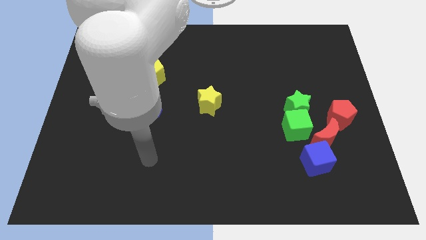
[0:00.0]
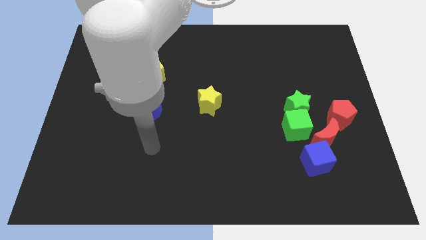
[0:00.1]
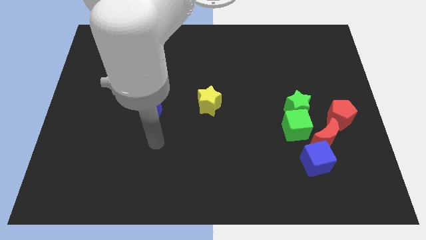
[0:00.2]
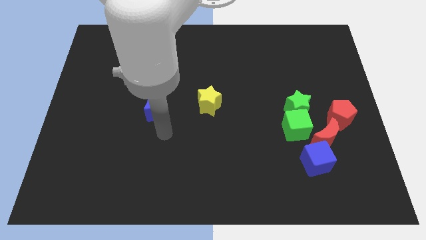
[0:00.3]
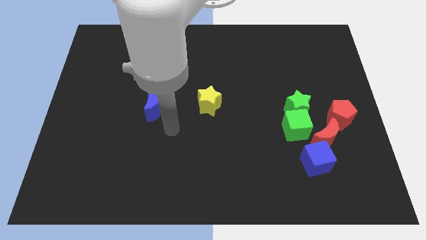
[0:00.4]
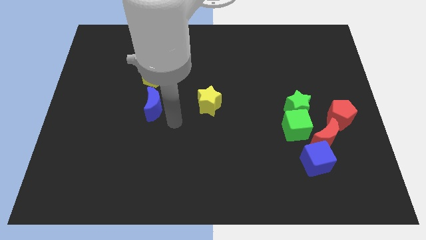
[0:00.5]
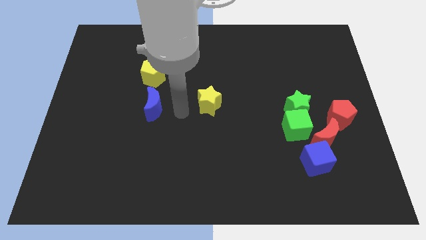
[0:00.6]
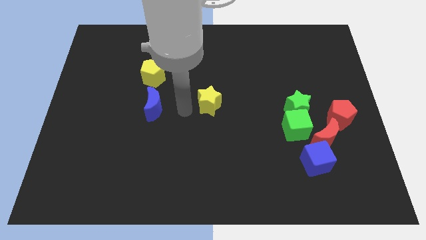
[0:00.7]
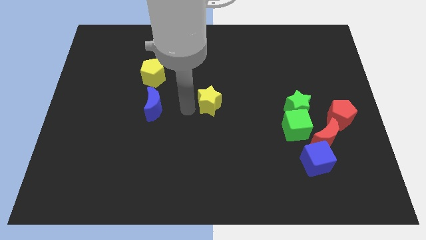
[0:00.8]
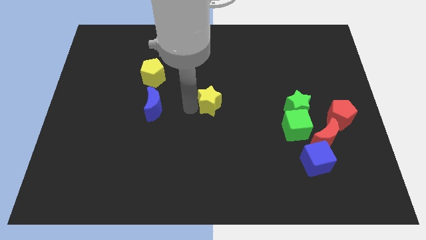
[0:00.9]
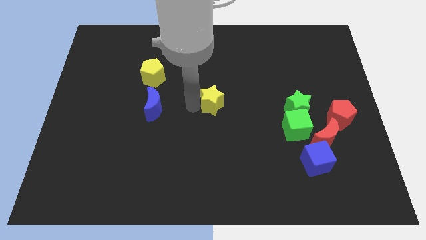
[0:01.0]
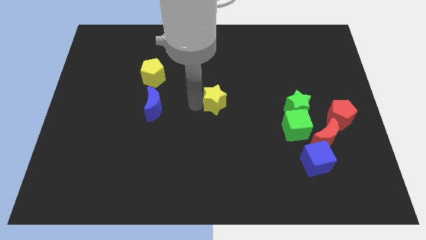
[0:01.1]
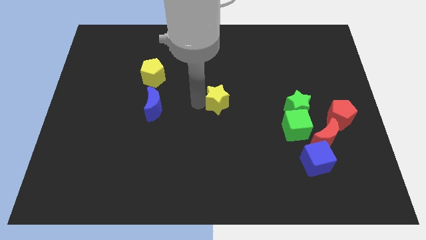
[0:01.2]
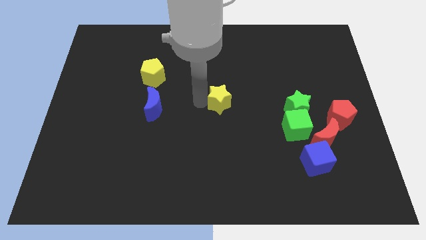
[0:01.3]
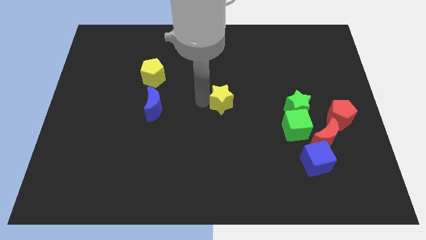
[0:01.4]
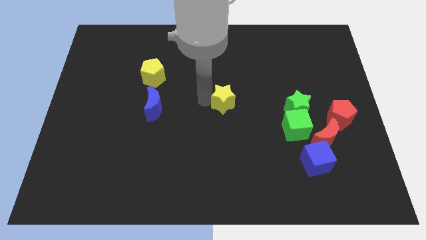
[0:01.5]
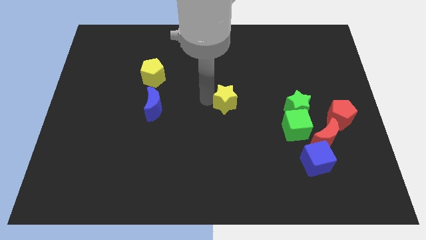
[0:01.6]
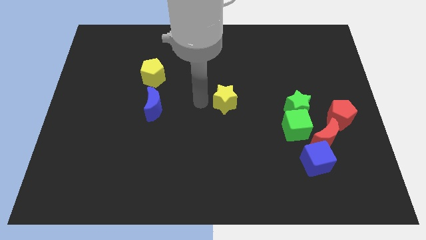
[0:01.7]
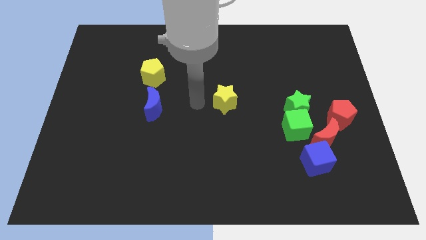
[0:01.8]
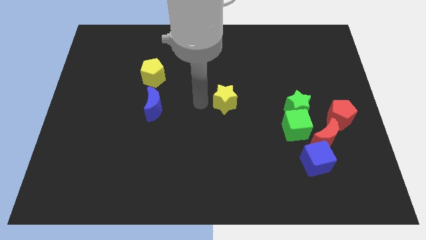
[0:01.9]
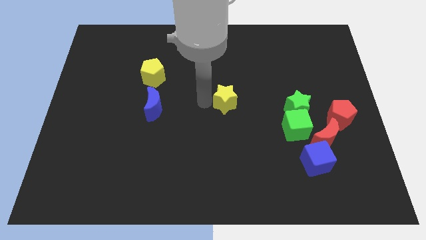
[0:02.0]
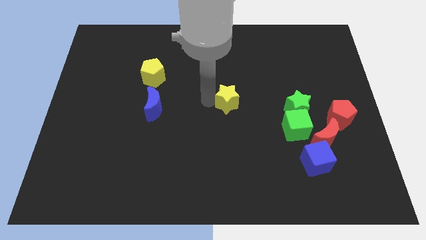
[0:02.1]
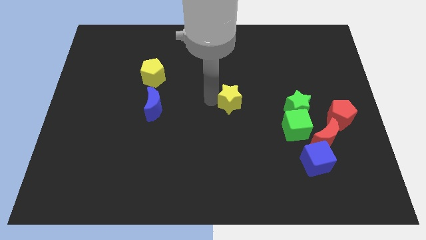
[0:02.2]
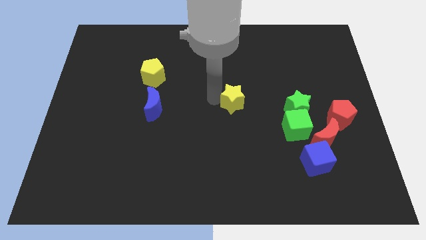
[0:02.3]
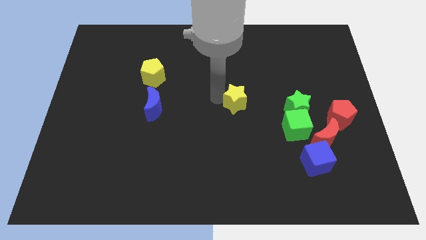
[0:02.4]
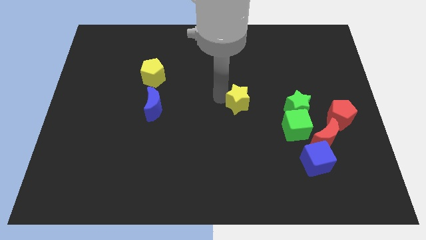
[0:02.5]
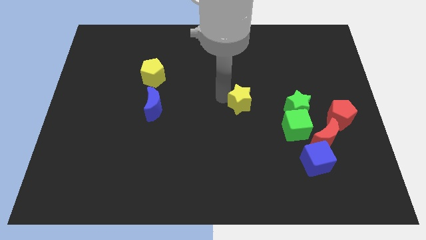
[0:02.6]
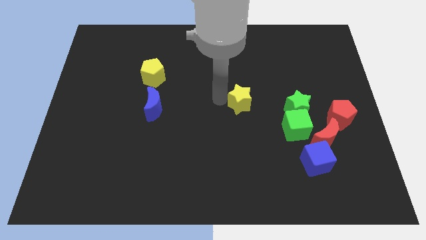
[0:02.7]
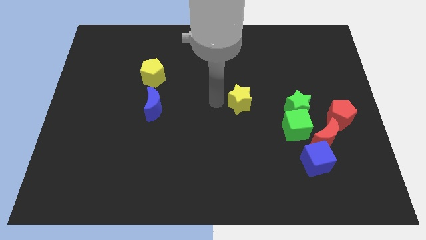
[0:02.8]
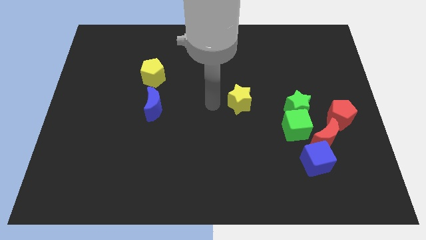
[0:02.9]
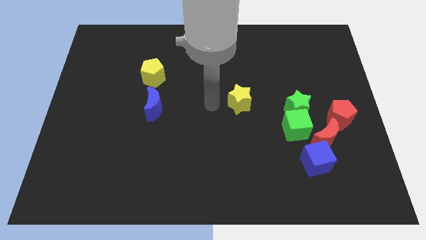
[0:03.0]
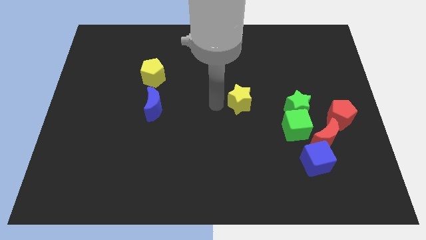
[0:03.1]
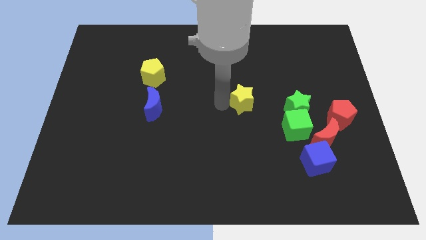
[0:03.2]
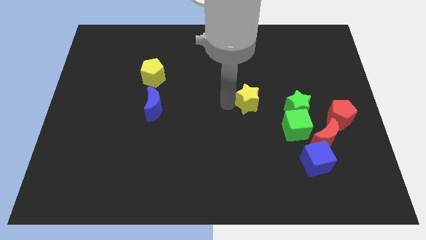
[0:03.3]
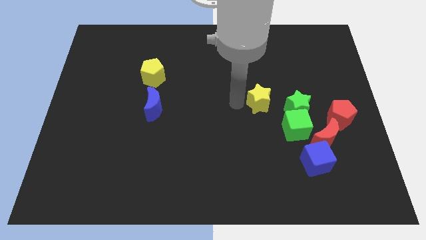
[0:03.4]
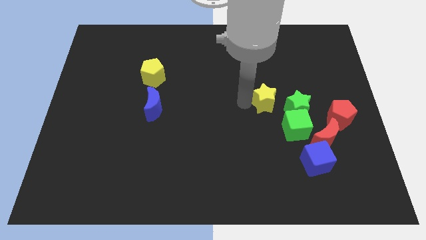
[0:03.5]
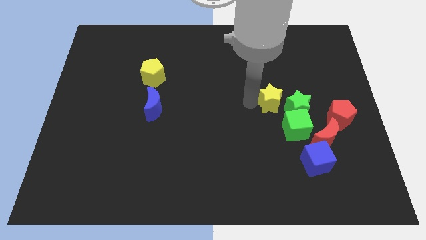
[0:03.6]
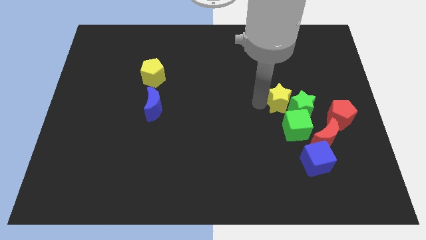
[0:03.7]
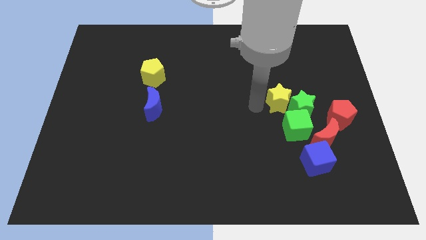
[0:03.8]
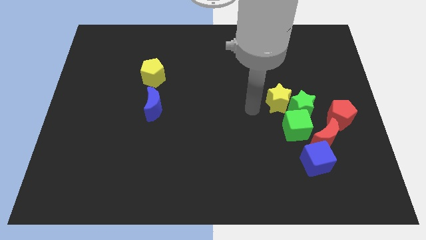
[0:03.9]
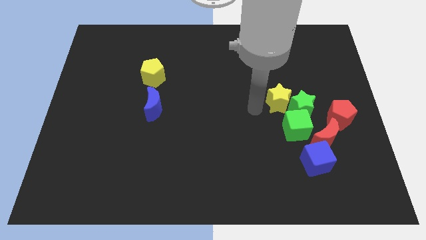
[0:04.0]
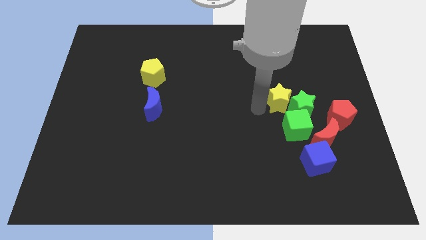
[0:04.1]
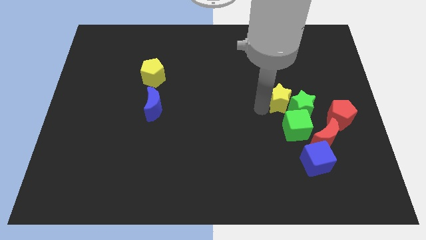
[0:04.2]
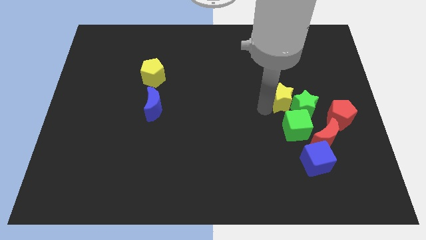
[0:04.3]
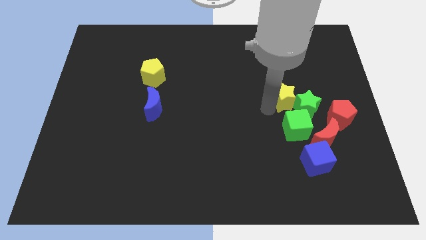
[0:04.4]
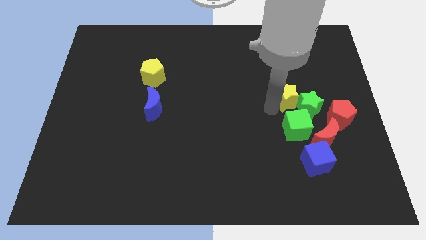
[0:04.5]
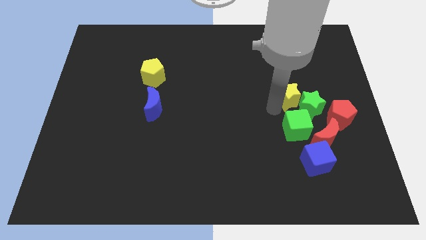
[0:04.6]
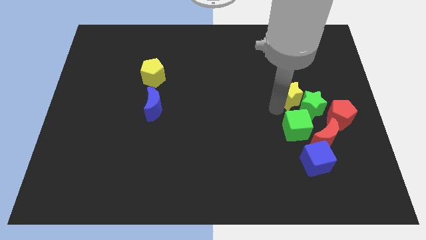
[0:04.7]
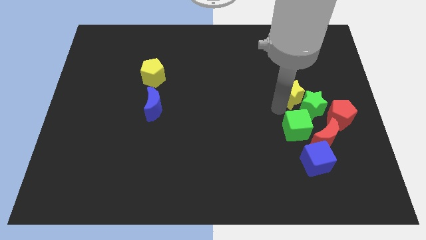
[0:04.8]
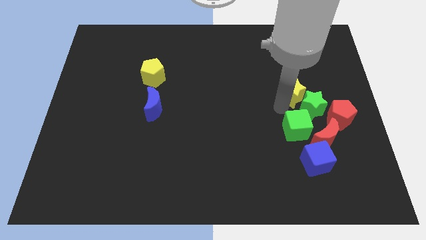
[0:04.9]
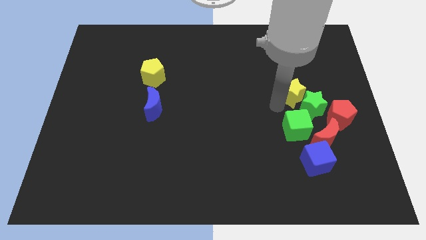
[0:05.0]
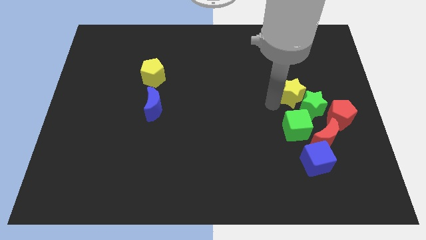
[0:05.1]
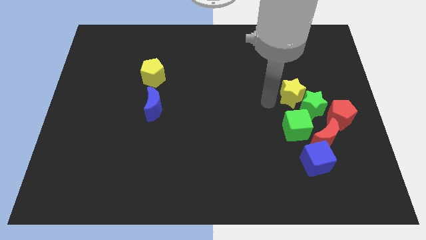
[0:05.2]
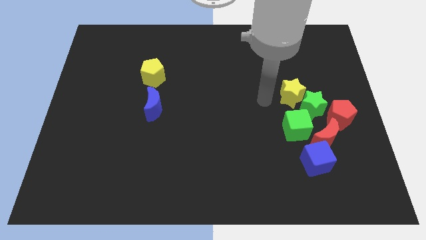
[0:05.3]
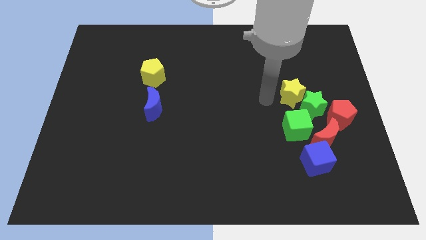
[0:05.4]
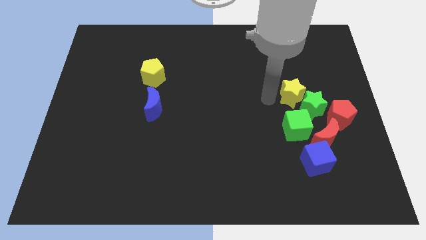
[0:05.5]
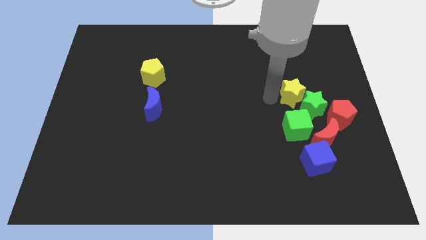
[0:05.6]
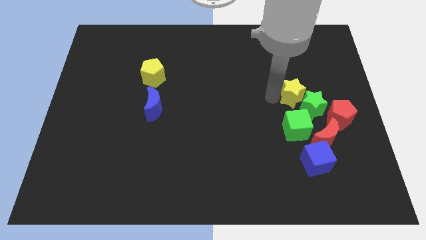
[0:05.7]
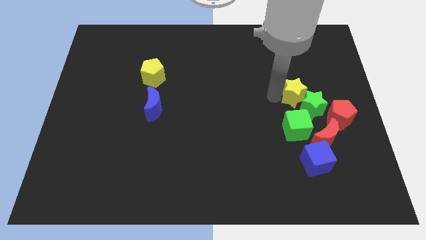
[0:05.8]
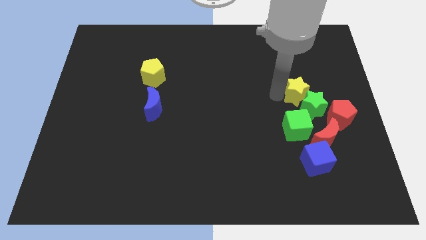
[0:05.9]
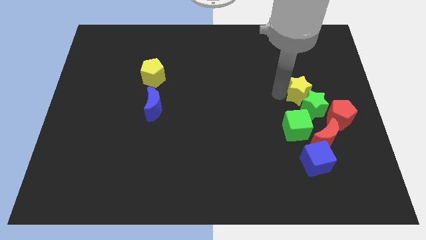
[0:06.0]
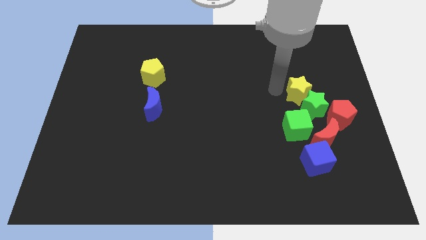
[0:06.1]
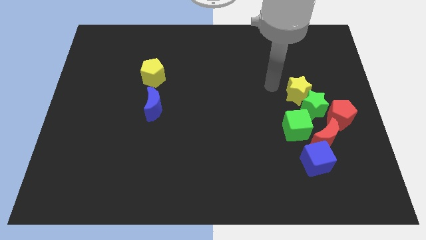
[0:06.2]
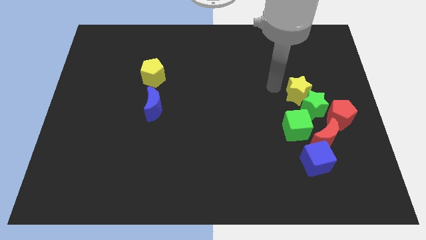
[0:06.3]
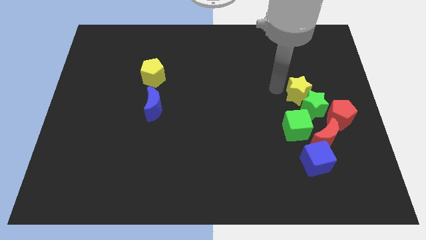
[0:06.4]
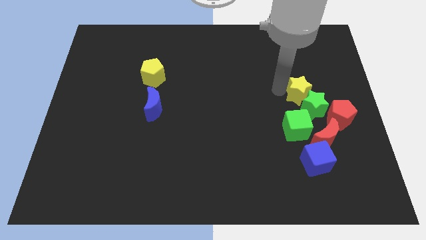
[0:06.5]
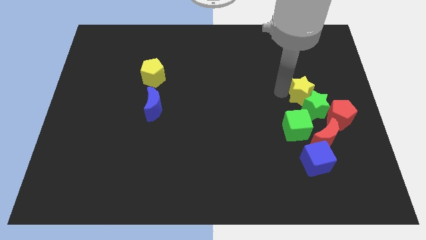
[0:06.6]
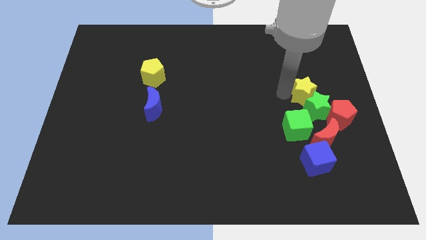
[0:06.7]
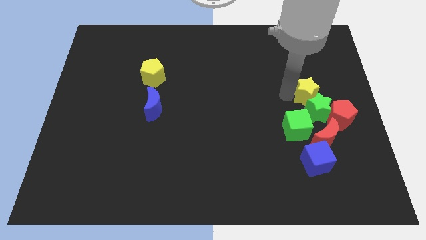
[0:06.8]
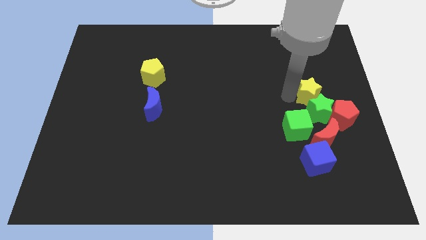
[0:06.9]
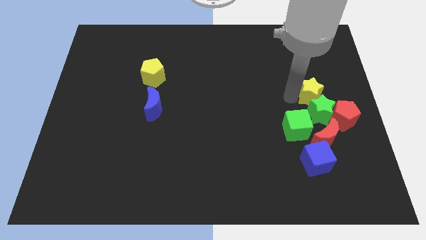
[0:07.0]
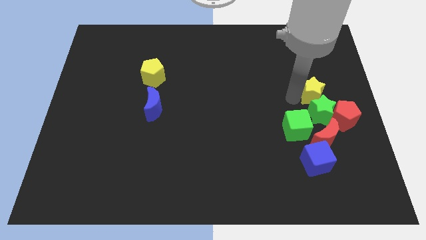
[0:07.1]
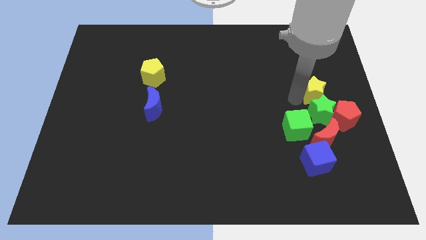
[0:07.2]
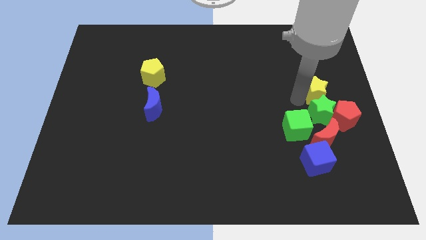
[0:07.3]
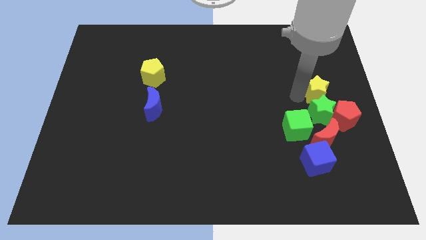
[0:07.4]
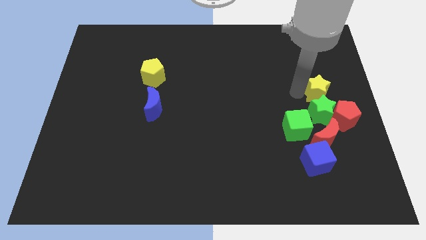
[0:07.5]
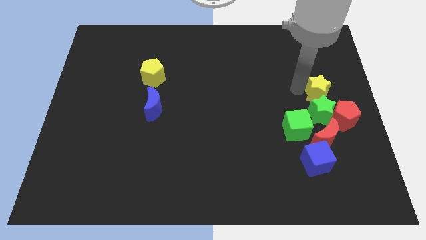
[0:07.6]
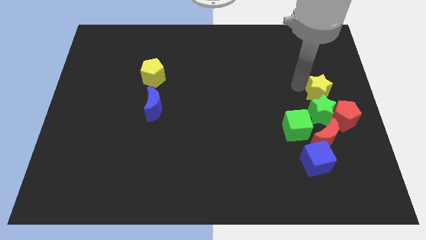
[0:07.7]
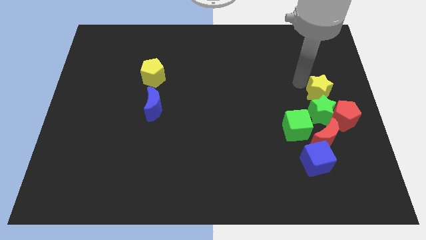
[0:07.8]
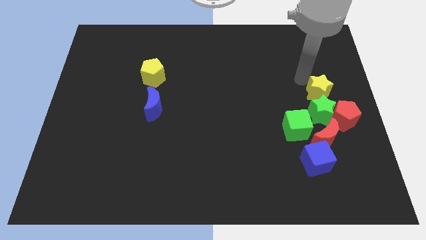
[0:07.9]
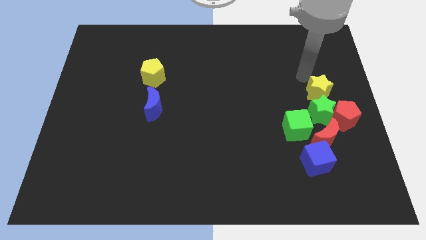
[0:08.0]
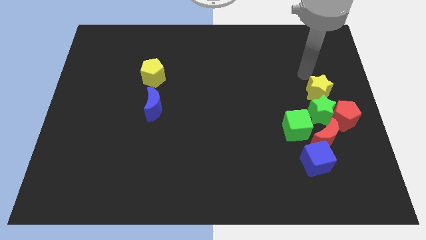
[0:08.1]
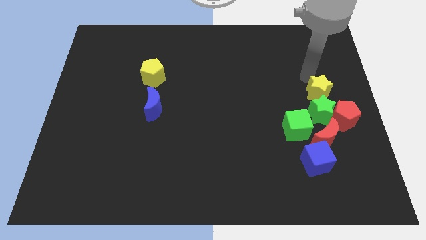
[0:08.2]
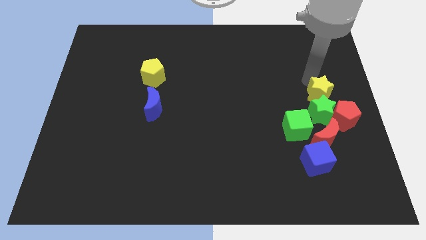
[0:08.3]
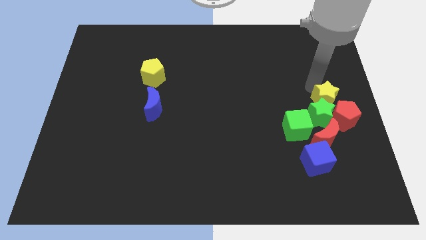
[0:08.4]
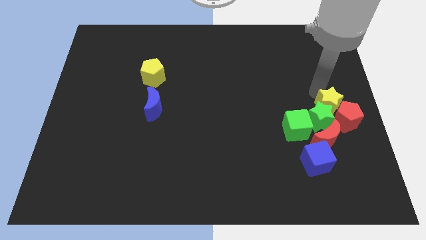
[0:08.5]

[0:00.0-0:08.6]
move the yellow star close to the red pentagon
